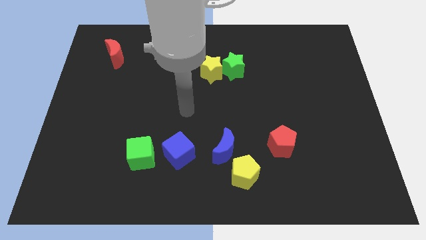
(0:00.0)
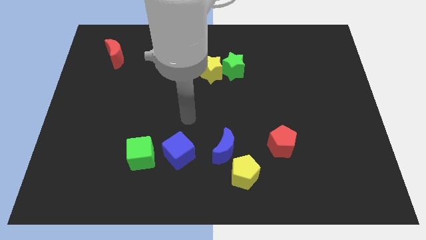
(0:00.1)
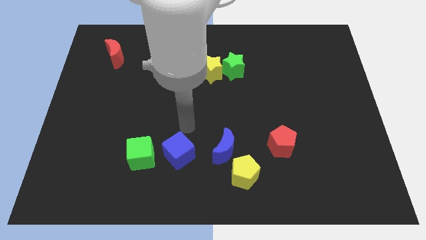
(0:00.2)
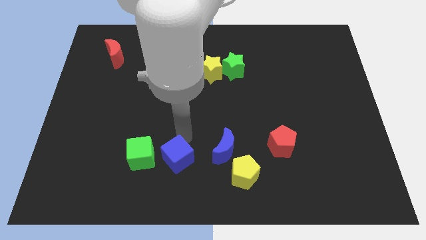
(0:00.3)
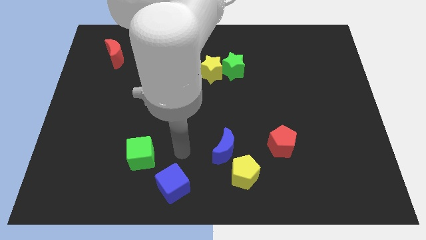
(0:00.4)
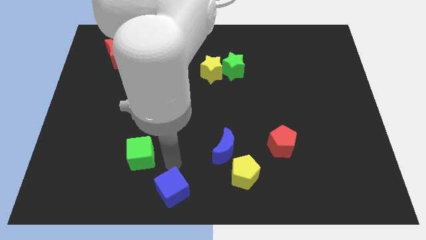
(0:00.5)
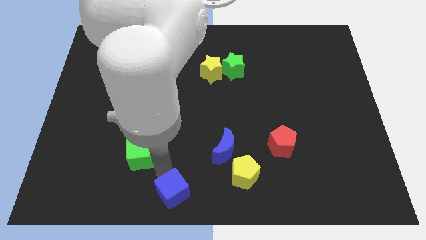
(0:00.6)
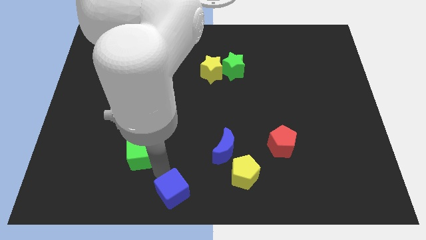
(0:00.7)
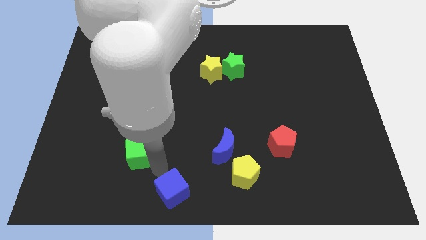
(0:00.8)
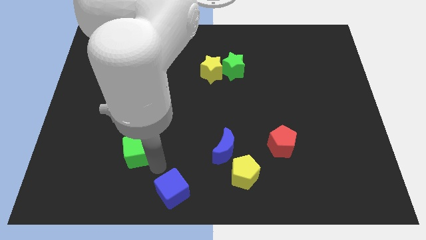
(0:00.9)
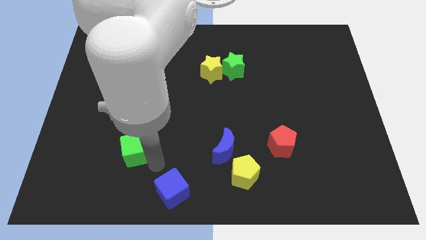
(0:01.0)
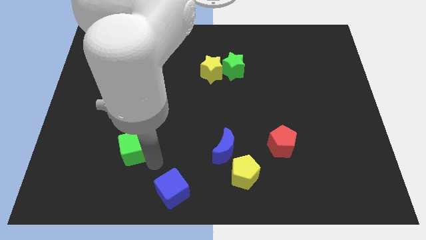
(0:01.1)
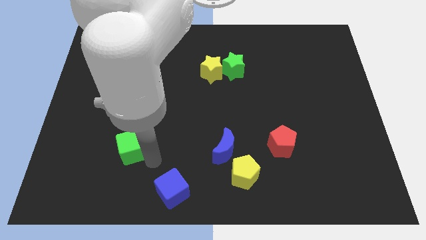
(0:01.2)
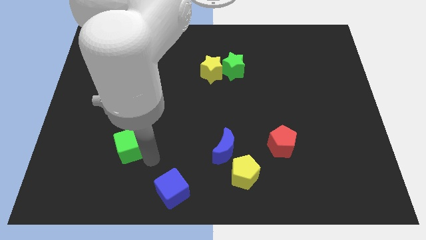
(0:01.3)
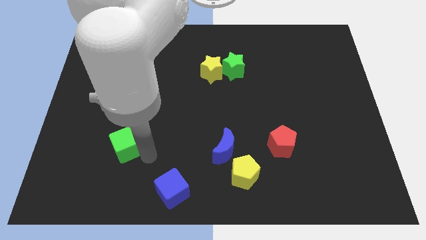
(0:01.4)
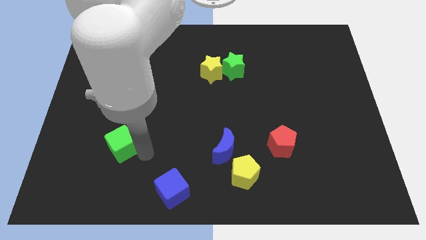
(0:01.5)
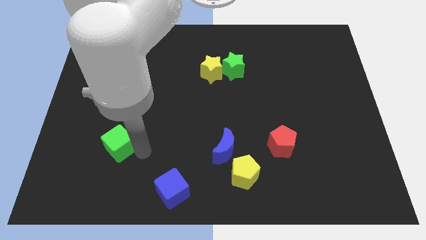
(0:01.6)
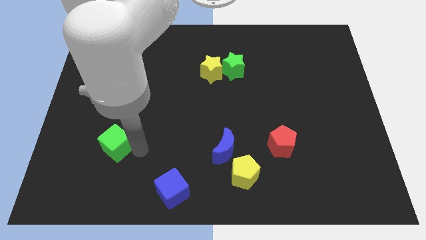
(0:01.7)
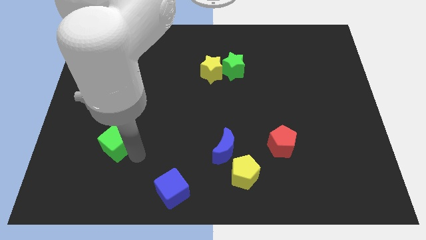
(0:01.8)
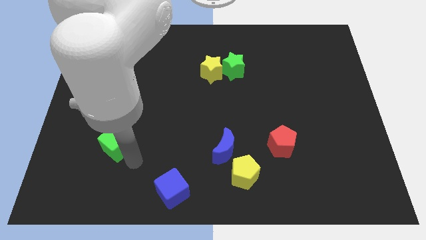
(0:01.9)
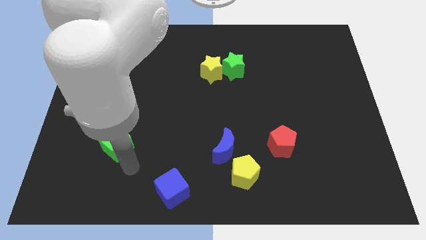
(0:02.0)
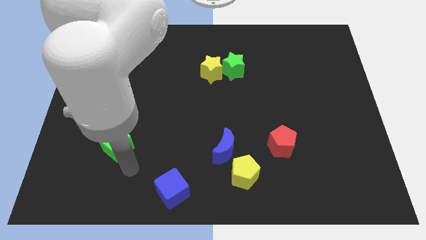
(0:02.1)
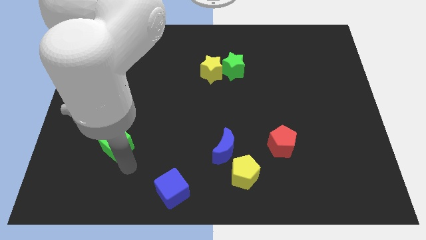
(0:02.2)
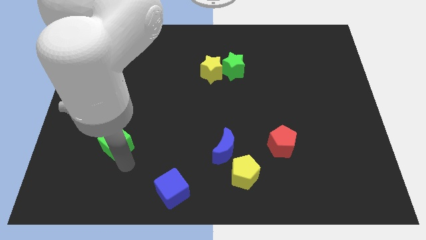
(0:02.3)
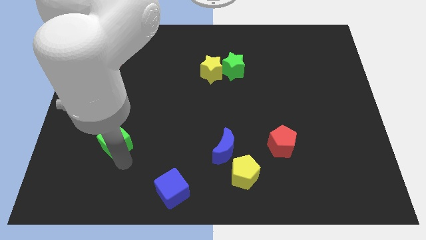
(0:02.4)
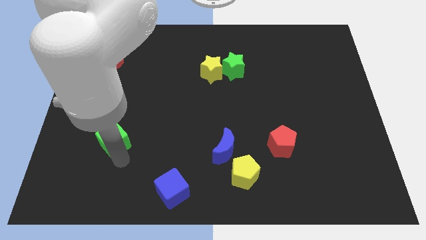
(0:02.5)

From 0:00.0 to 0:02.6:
slightly move the green cube up and then left

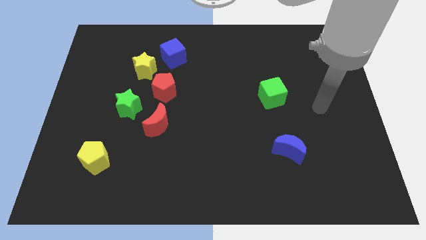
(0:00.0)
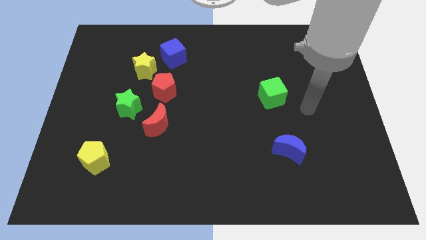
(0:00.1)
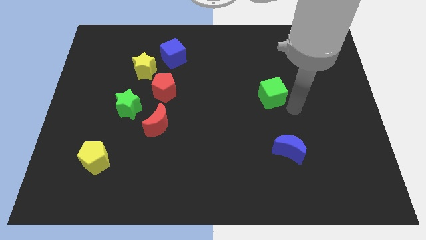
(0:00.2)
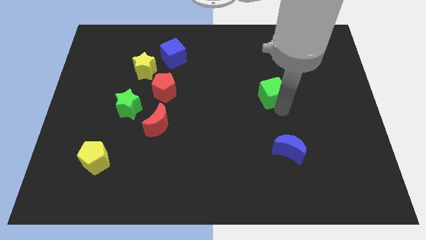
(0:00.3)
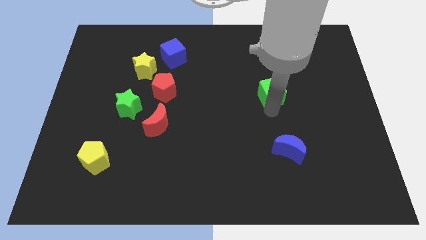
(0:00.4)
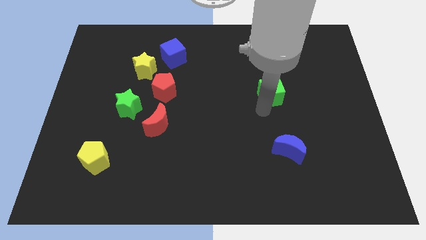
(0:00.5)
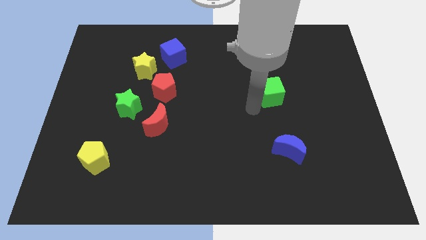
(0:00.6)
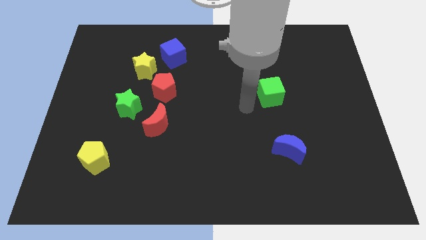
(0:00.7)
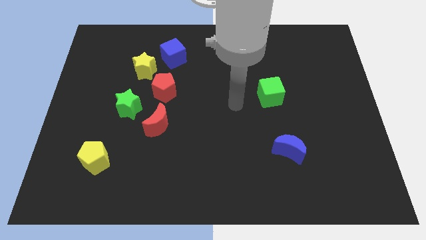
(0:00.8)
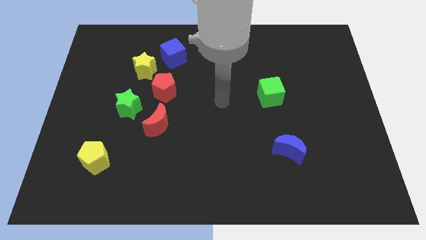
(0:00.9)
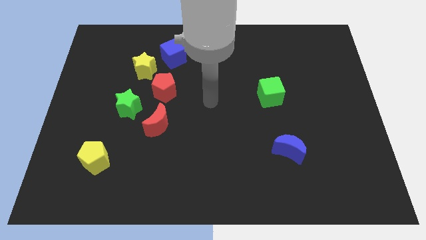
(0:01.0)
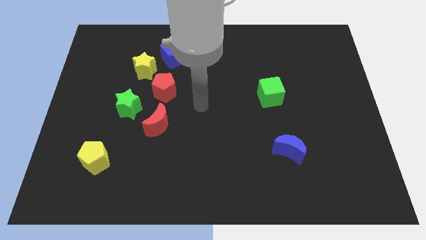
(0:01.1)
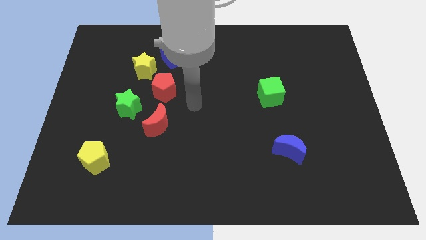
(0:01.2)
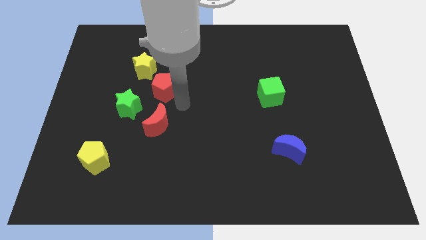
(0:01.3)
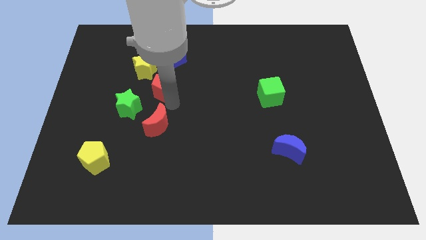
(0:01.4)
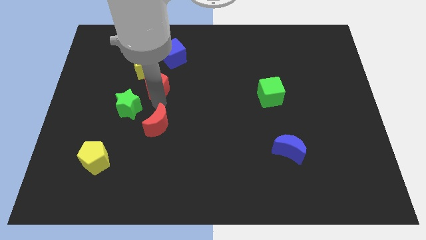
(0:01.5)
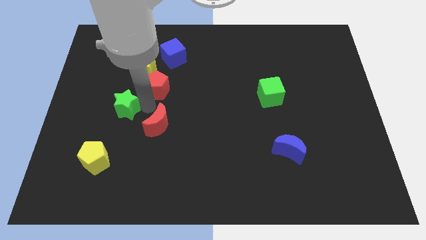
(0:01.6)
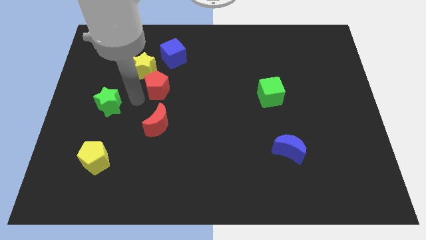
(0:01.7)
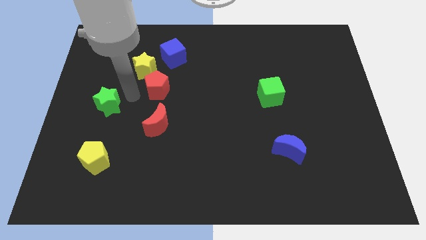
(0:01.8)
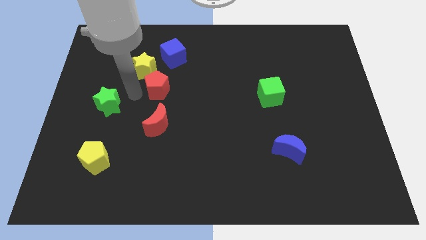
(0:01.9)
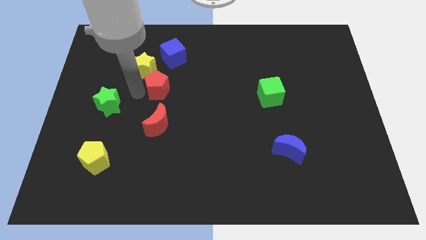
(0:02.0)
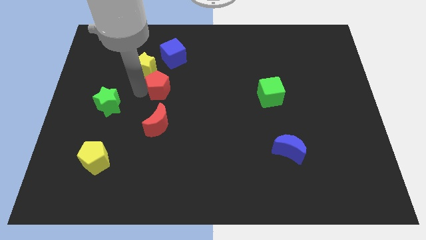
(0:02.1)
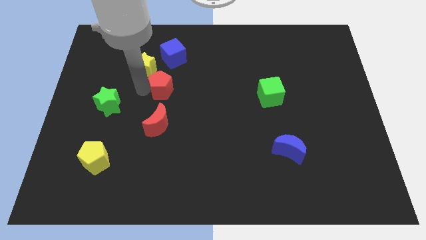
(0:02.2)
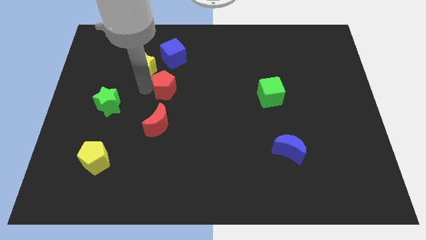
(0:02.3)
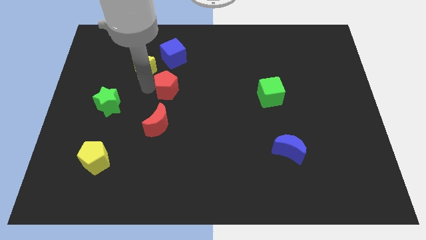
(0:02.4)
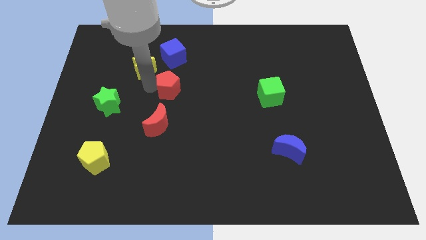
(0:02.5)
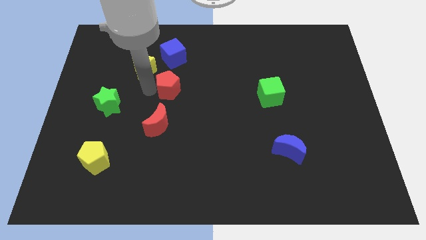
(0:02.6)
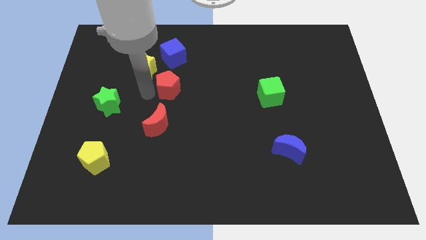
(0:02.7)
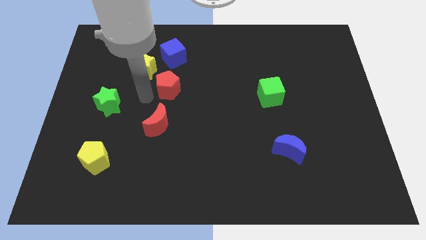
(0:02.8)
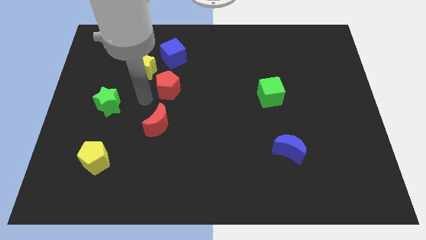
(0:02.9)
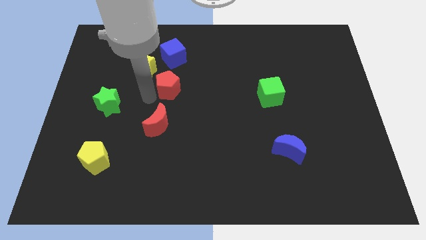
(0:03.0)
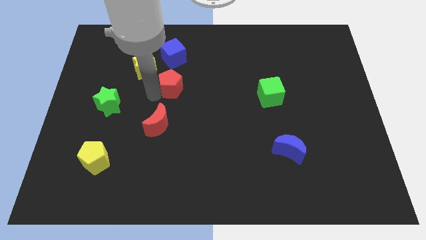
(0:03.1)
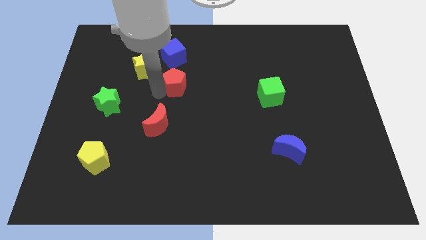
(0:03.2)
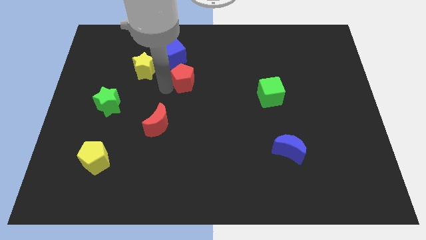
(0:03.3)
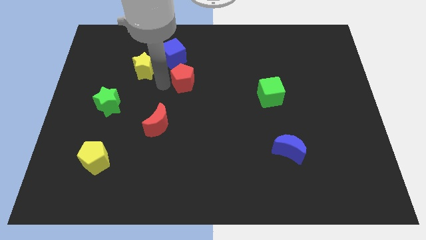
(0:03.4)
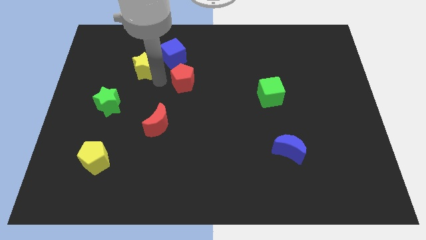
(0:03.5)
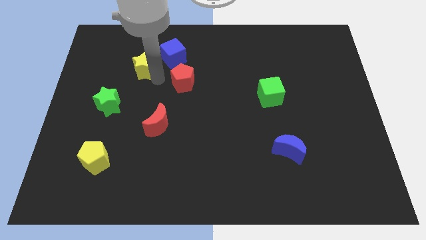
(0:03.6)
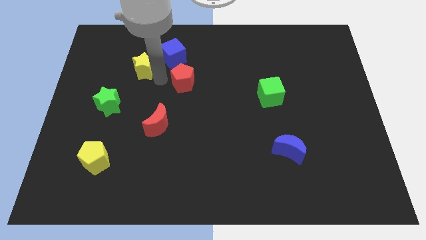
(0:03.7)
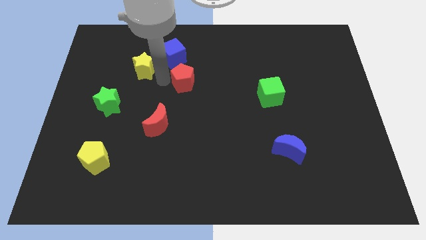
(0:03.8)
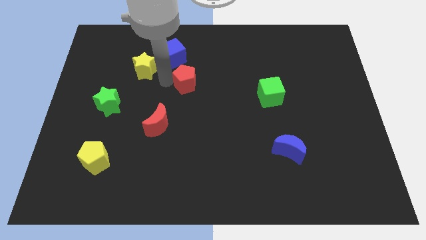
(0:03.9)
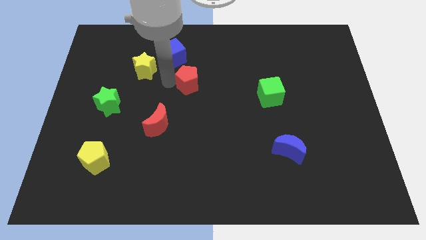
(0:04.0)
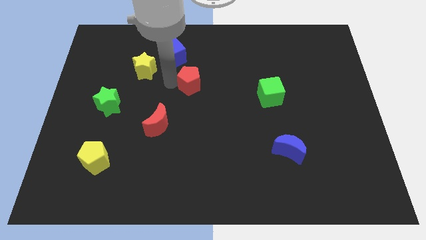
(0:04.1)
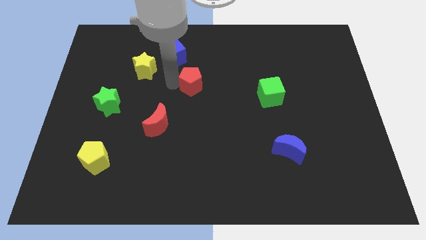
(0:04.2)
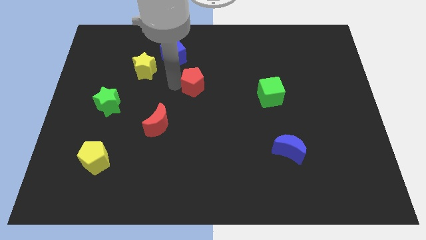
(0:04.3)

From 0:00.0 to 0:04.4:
slightly push the red pentagon to the right

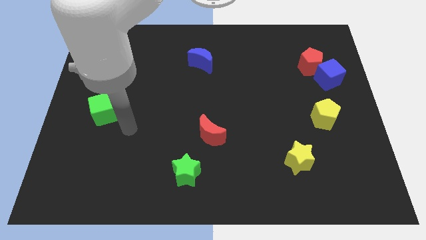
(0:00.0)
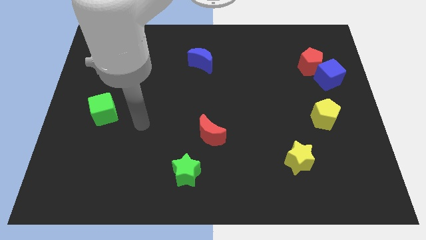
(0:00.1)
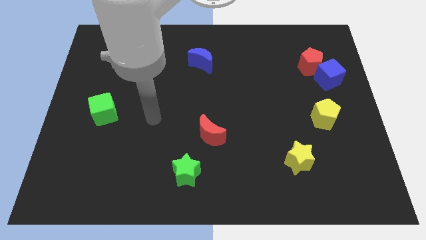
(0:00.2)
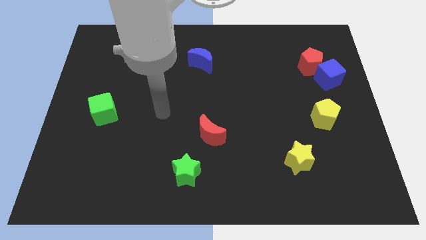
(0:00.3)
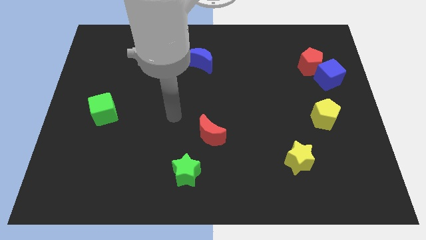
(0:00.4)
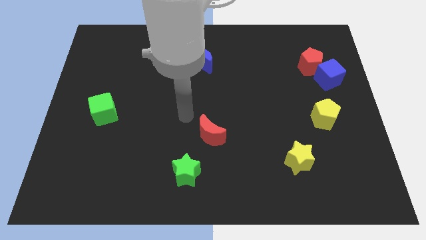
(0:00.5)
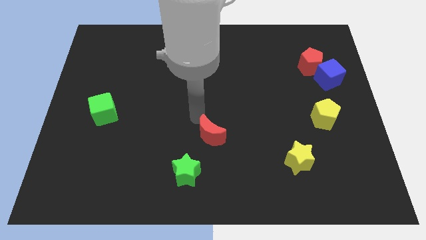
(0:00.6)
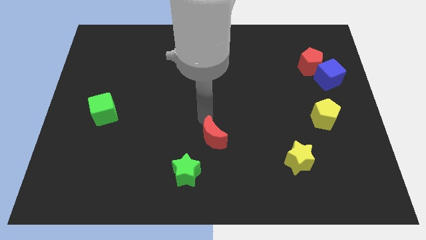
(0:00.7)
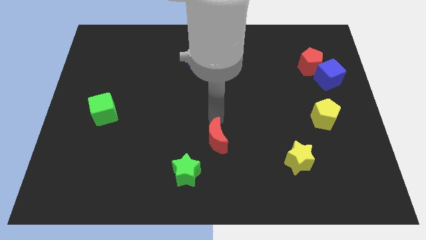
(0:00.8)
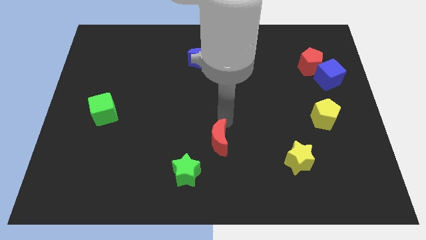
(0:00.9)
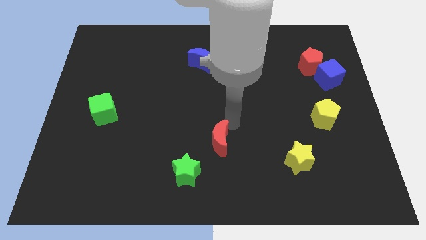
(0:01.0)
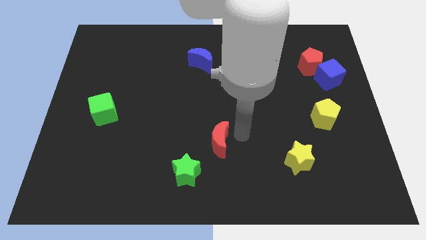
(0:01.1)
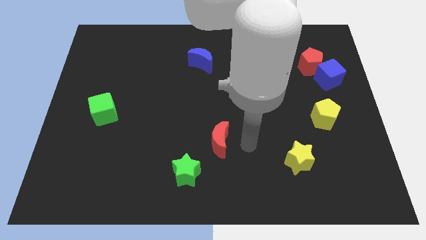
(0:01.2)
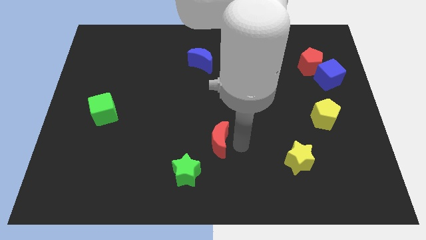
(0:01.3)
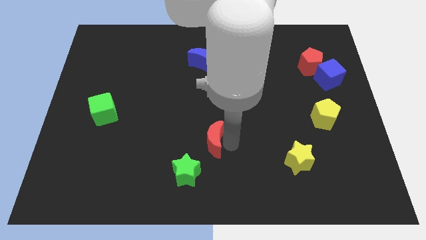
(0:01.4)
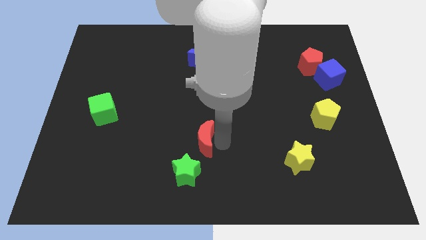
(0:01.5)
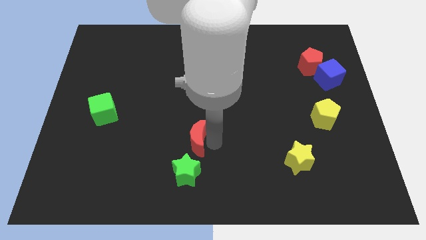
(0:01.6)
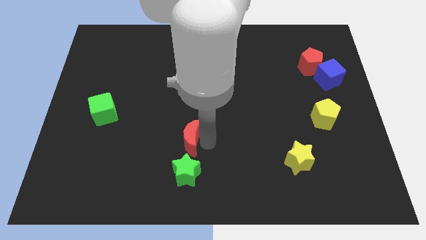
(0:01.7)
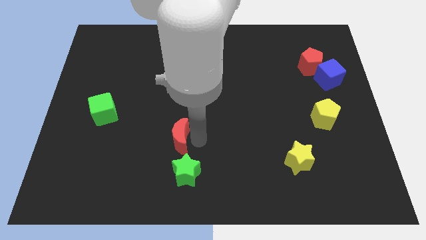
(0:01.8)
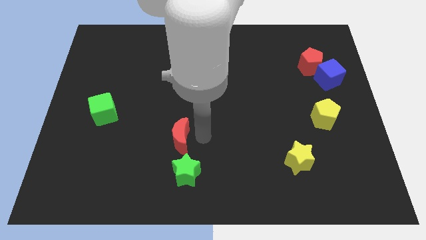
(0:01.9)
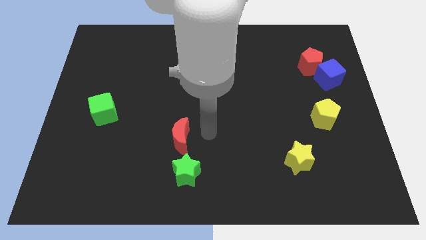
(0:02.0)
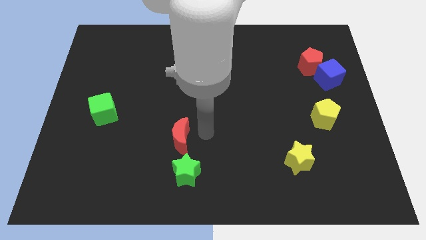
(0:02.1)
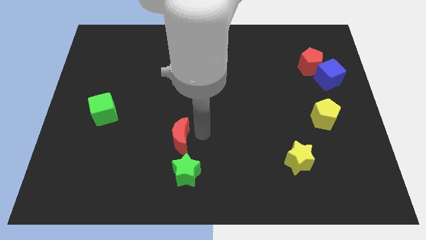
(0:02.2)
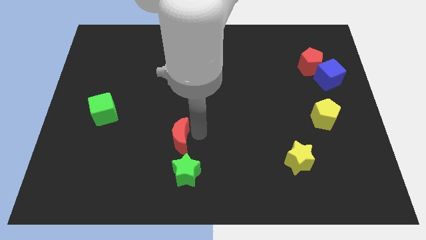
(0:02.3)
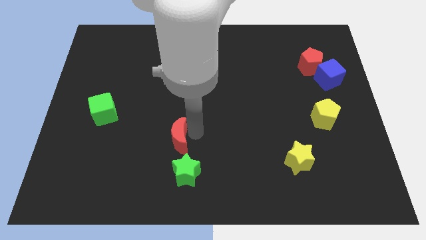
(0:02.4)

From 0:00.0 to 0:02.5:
slightly push the red moon to the left
